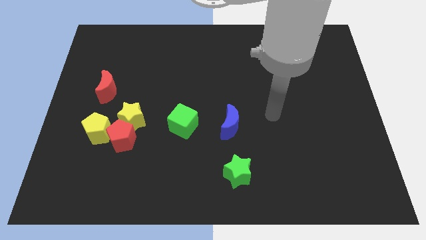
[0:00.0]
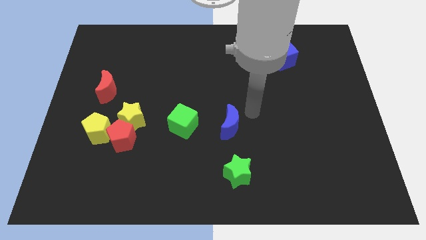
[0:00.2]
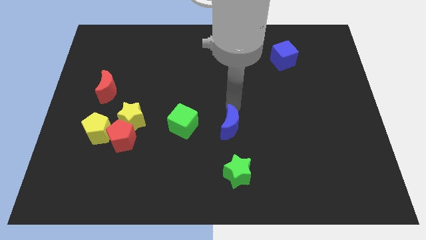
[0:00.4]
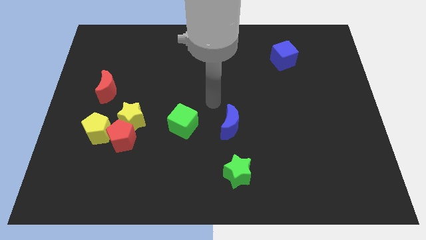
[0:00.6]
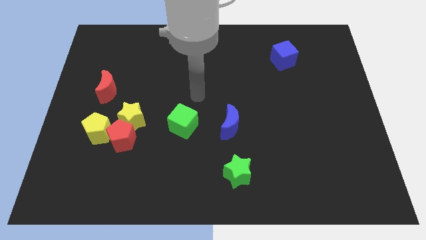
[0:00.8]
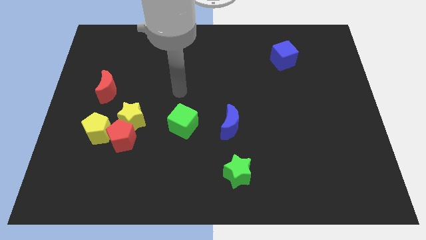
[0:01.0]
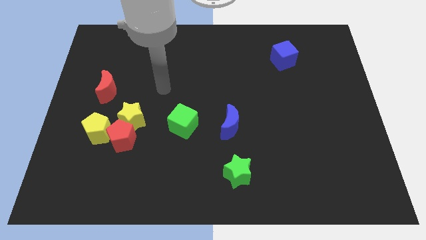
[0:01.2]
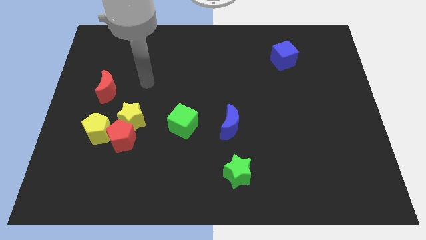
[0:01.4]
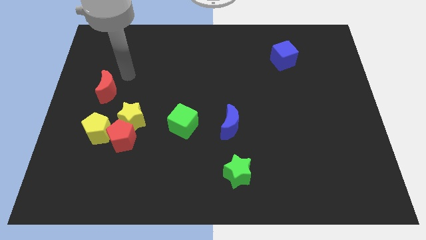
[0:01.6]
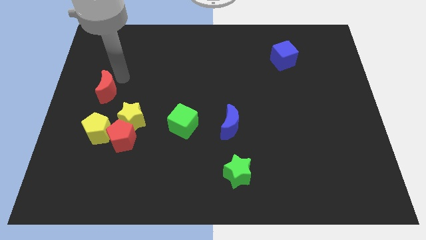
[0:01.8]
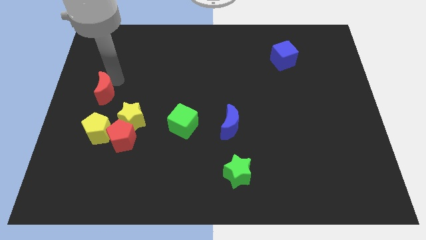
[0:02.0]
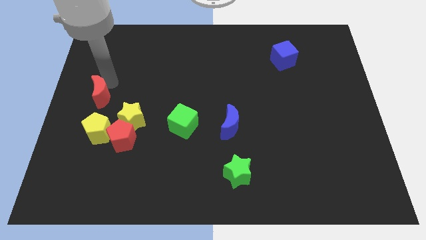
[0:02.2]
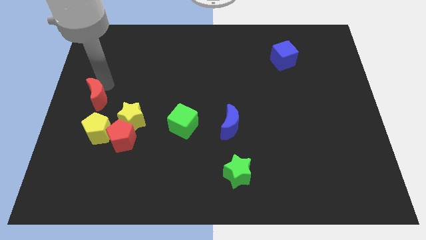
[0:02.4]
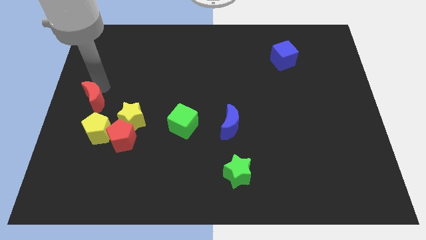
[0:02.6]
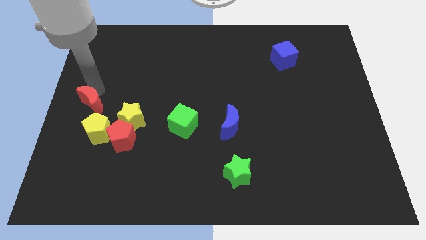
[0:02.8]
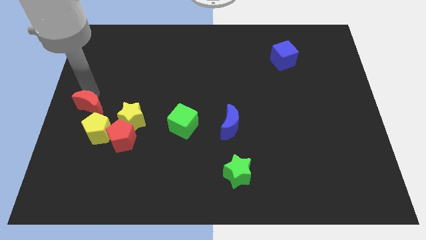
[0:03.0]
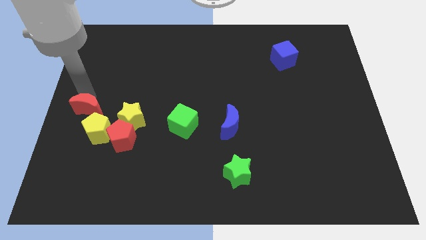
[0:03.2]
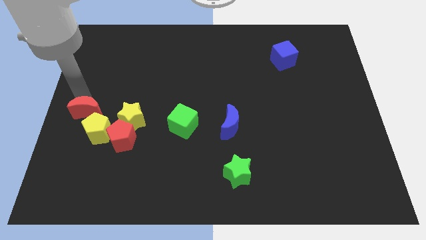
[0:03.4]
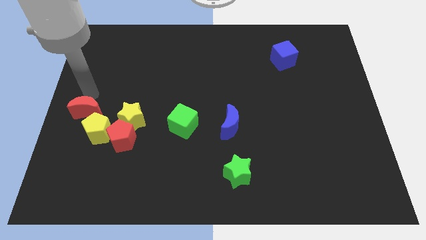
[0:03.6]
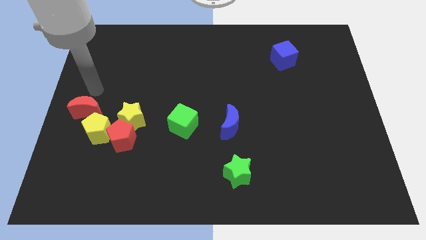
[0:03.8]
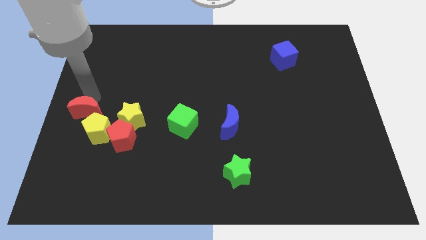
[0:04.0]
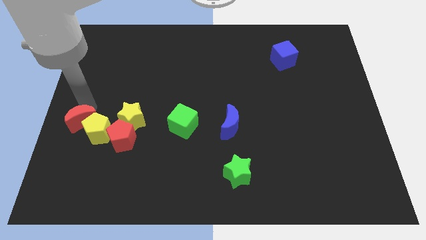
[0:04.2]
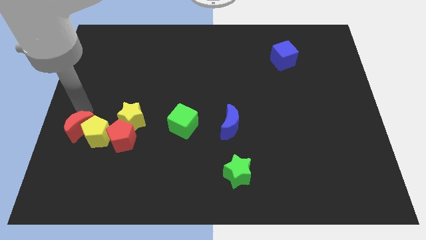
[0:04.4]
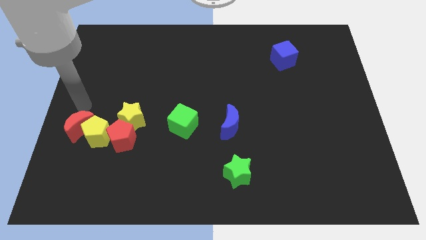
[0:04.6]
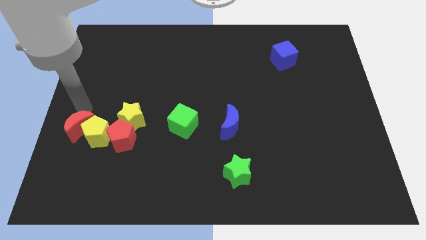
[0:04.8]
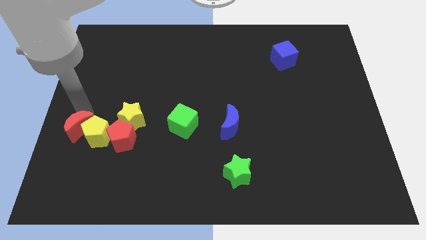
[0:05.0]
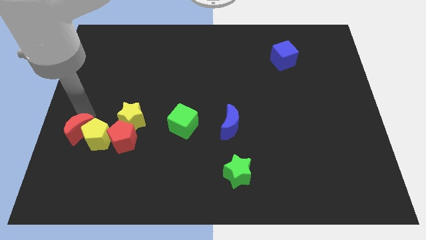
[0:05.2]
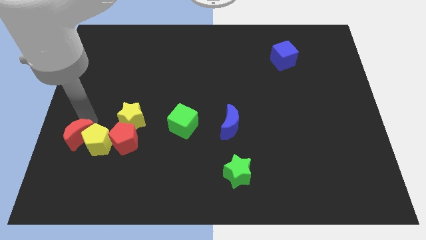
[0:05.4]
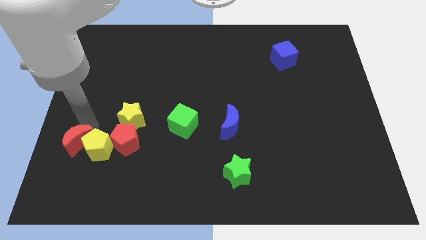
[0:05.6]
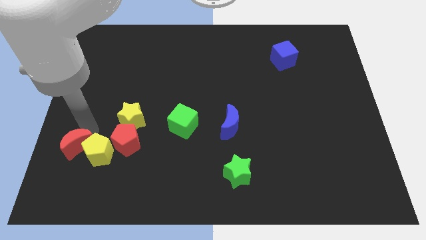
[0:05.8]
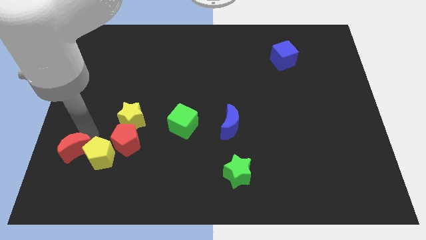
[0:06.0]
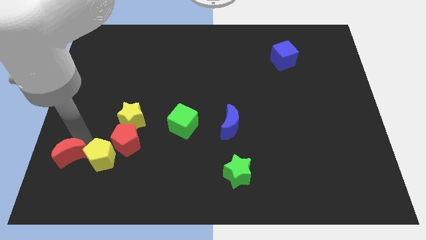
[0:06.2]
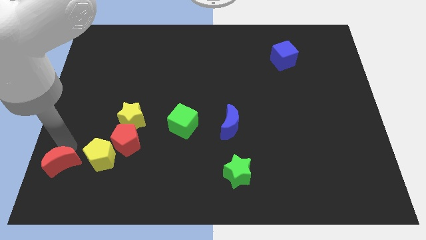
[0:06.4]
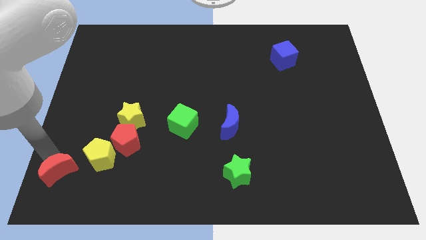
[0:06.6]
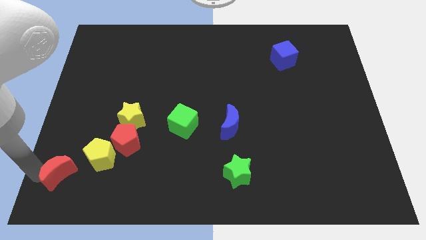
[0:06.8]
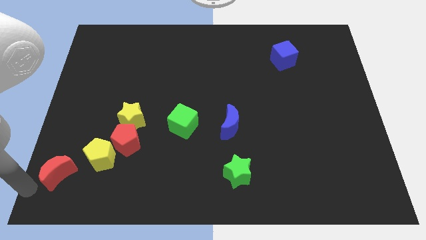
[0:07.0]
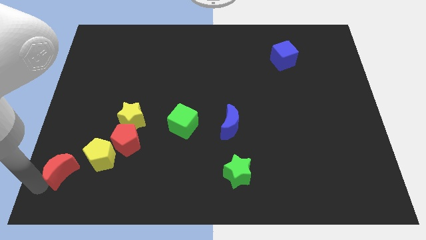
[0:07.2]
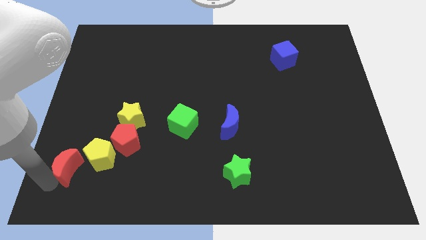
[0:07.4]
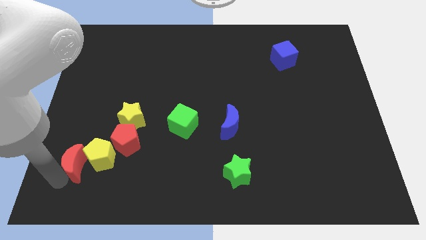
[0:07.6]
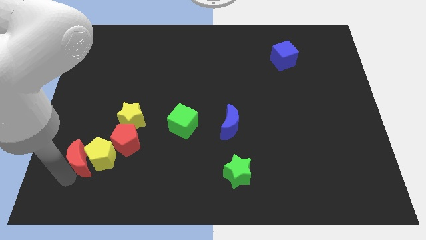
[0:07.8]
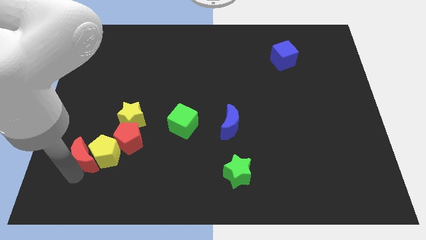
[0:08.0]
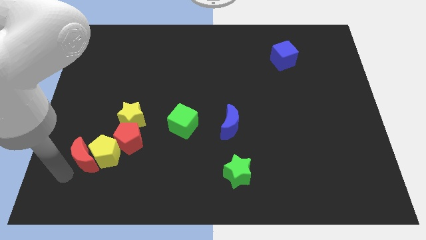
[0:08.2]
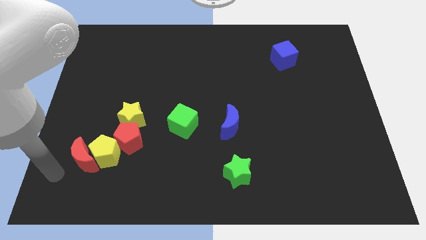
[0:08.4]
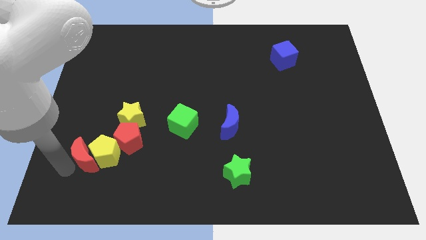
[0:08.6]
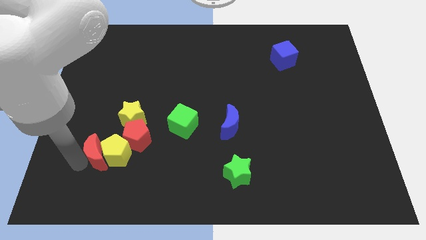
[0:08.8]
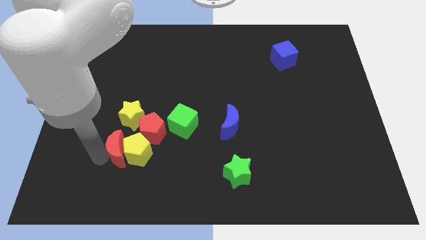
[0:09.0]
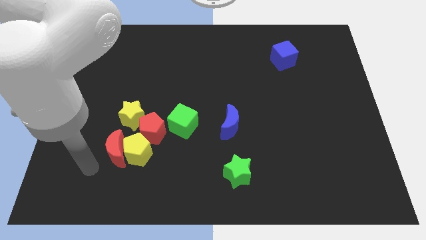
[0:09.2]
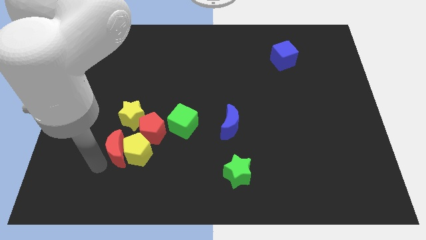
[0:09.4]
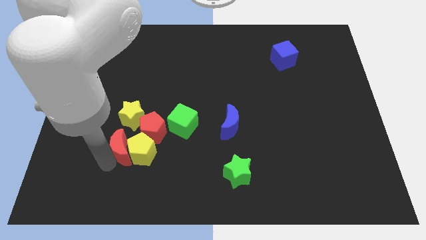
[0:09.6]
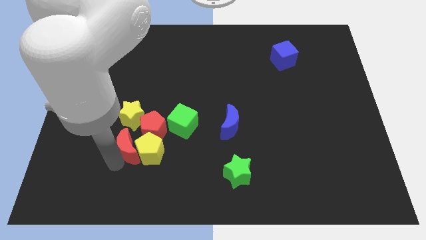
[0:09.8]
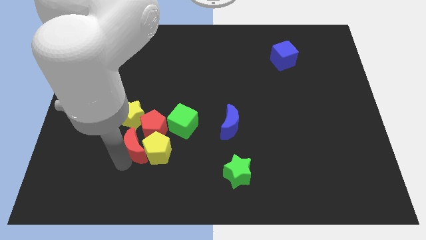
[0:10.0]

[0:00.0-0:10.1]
move the red moon close to the red pentagon

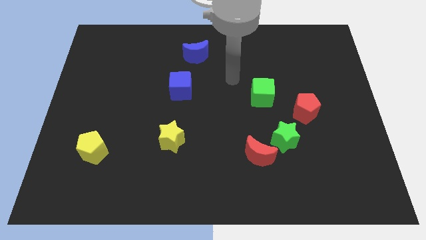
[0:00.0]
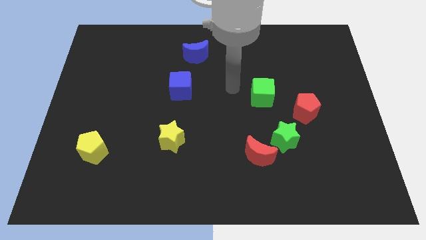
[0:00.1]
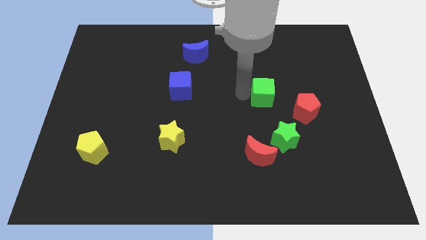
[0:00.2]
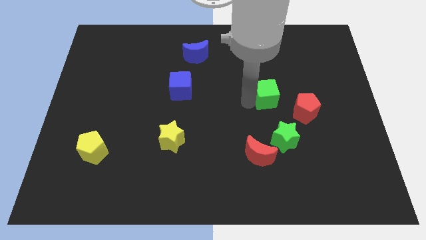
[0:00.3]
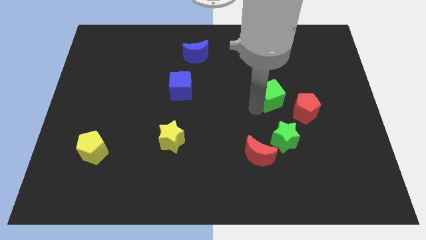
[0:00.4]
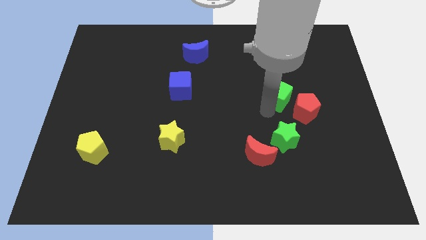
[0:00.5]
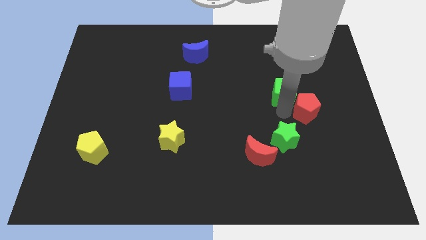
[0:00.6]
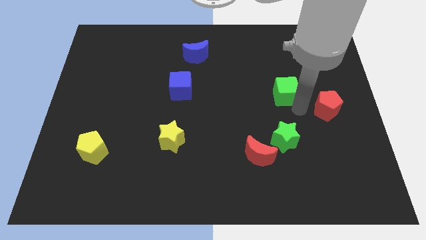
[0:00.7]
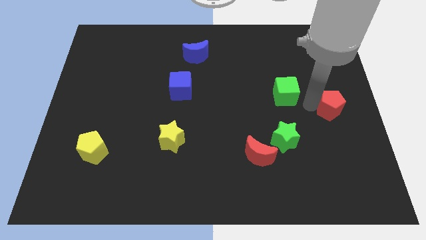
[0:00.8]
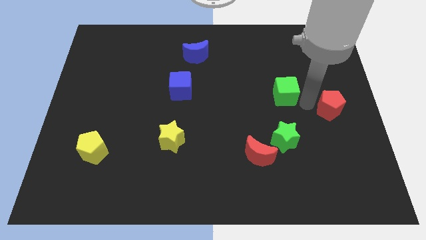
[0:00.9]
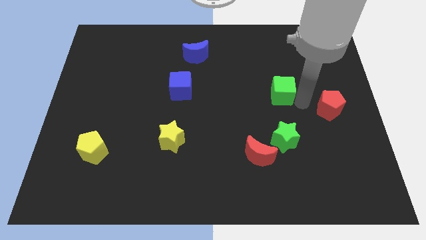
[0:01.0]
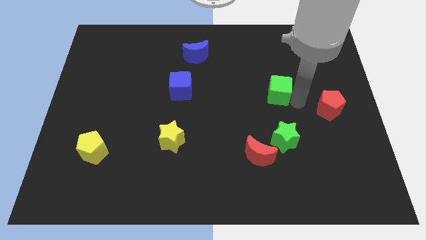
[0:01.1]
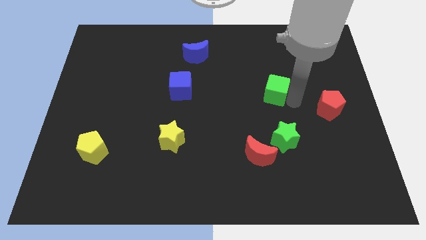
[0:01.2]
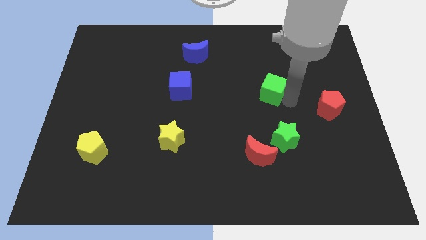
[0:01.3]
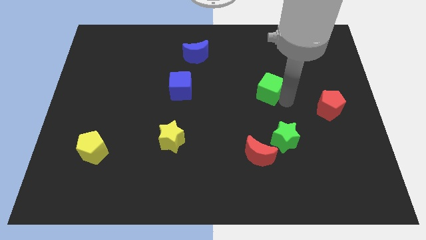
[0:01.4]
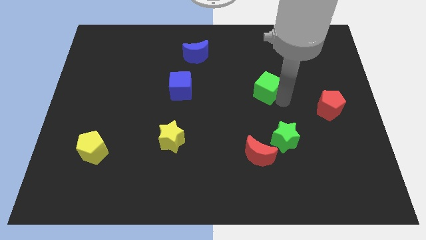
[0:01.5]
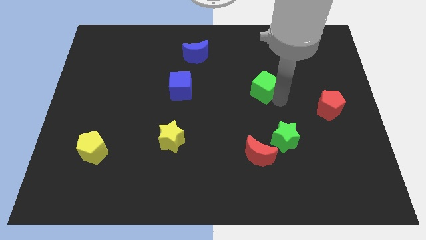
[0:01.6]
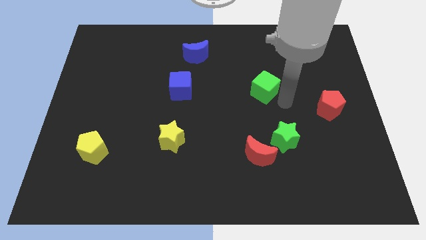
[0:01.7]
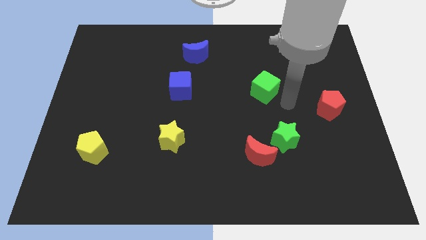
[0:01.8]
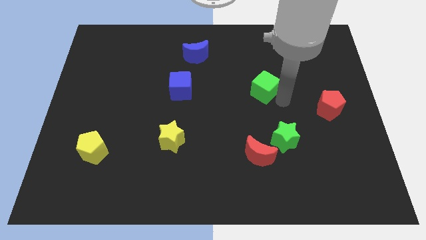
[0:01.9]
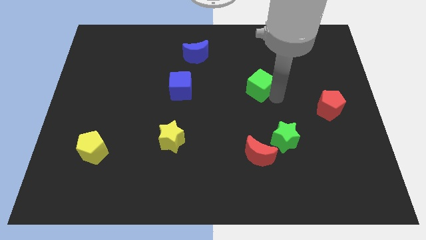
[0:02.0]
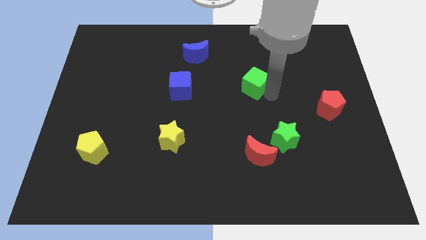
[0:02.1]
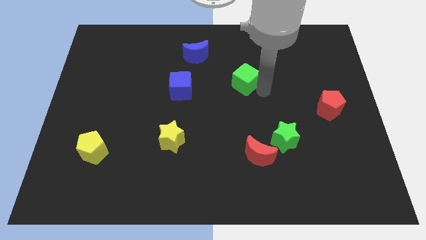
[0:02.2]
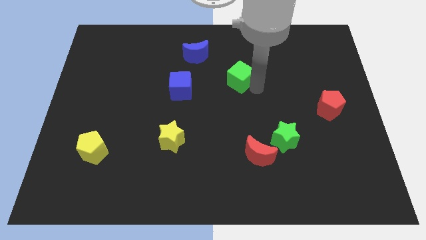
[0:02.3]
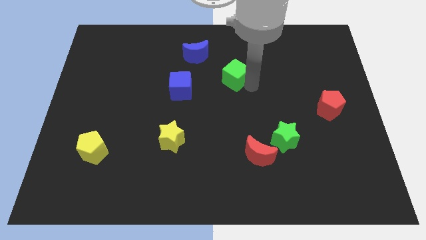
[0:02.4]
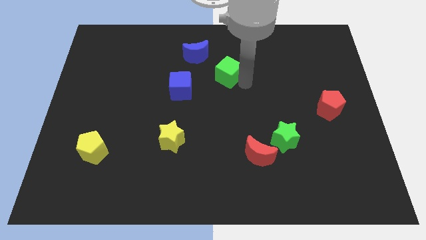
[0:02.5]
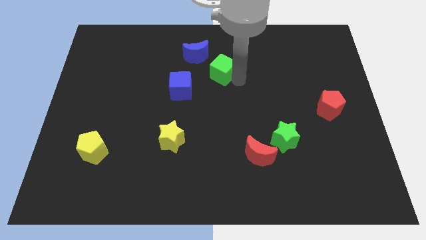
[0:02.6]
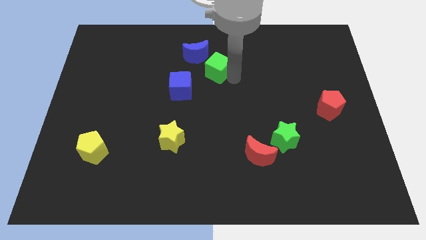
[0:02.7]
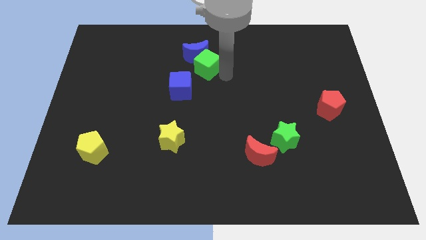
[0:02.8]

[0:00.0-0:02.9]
put the green cube to the blue moon
